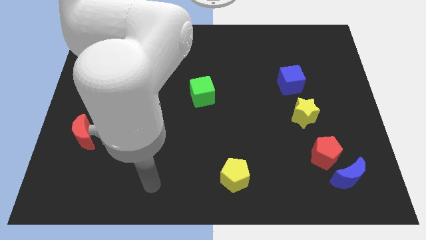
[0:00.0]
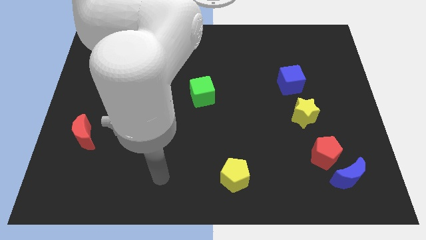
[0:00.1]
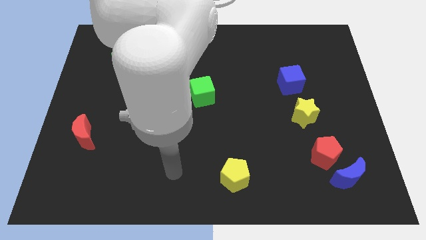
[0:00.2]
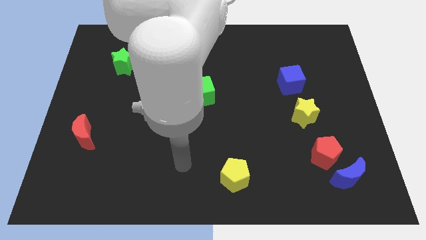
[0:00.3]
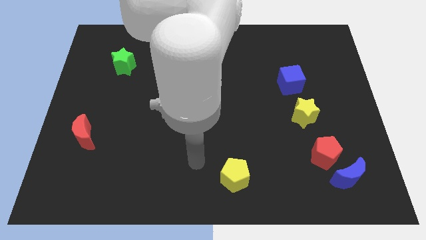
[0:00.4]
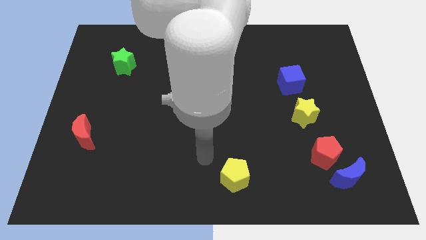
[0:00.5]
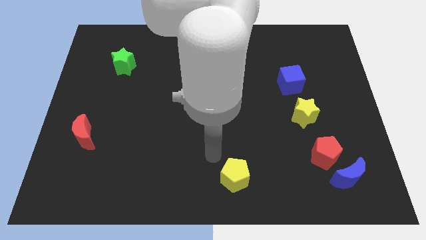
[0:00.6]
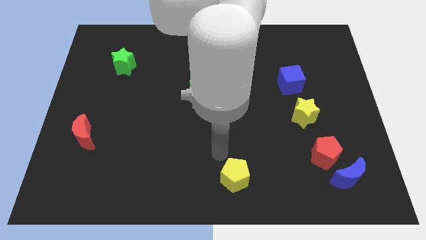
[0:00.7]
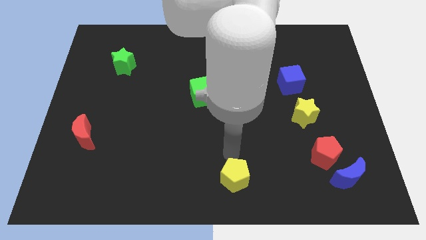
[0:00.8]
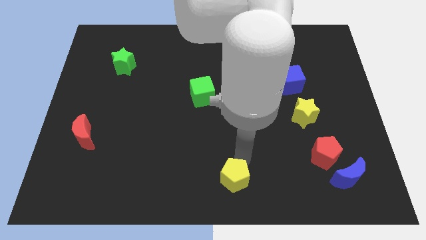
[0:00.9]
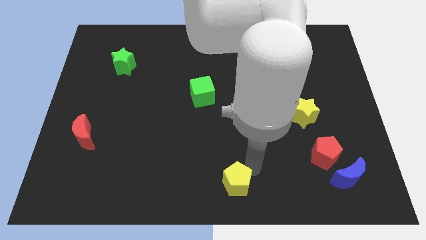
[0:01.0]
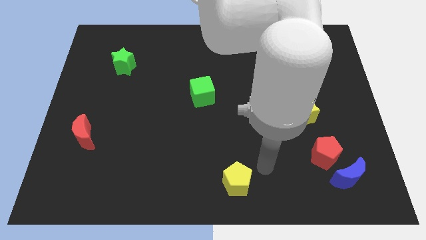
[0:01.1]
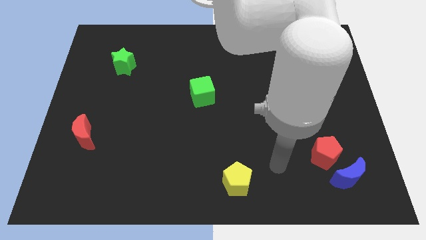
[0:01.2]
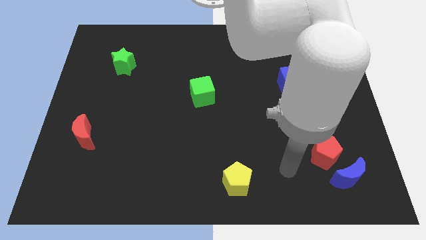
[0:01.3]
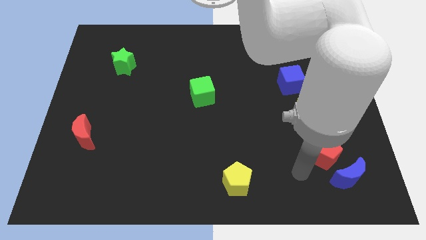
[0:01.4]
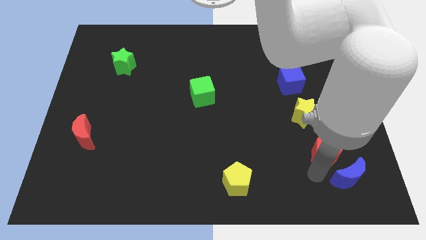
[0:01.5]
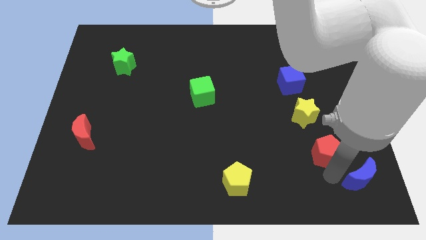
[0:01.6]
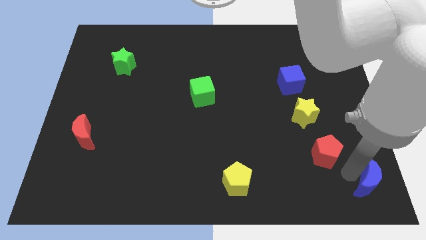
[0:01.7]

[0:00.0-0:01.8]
separate the red pentagon from the blue moon

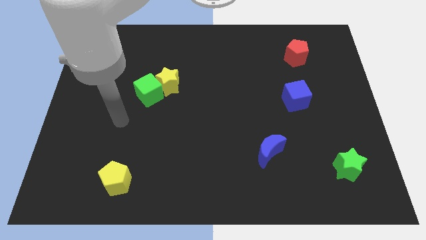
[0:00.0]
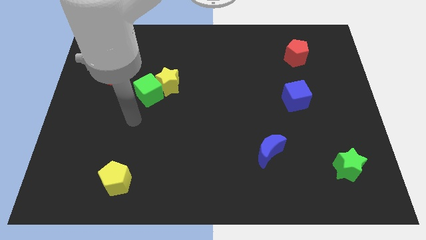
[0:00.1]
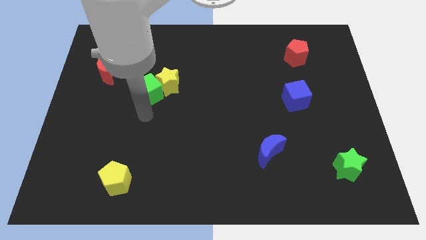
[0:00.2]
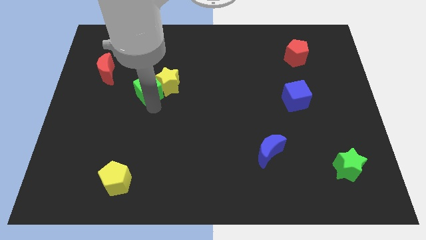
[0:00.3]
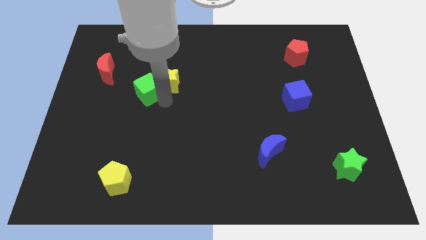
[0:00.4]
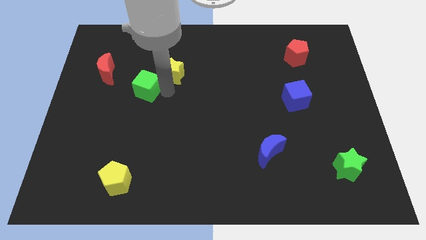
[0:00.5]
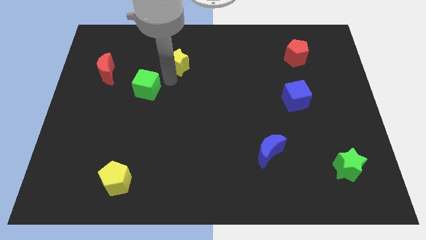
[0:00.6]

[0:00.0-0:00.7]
separate the green cube from the yellow star

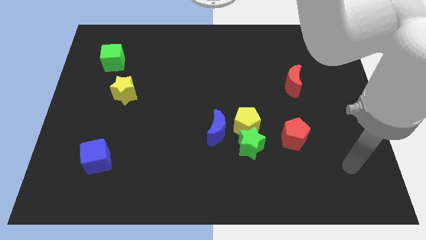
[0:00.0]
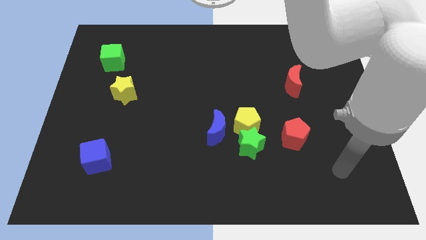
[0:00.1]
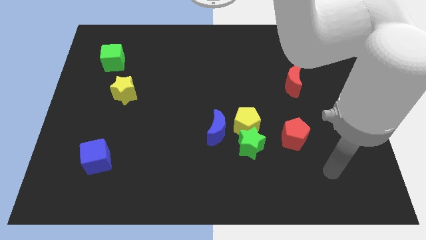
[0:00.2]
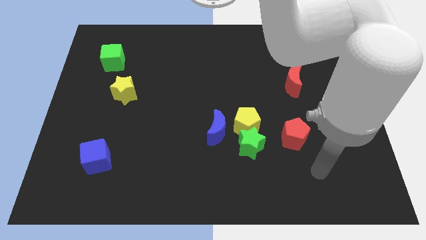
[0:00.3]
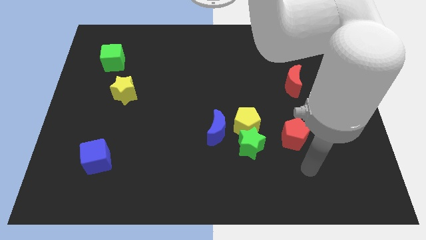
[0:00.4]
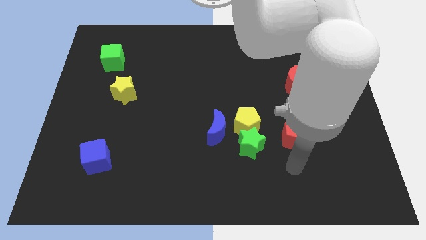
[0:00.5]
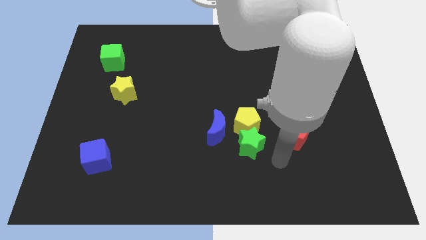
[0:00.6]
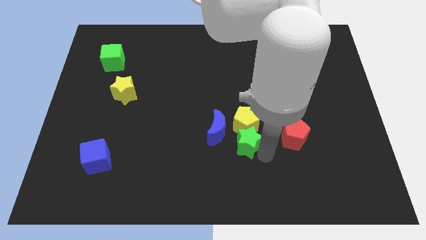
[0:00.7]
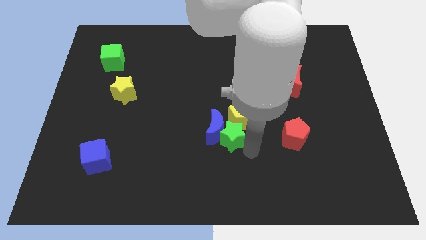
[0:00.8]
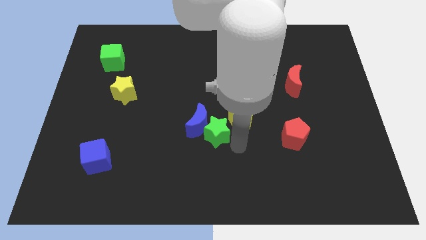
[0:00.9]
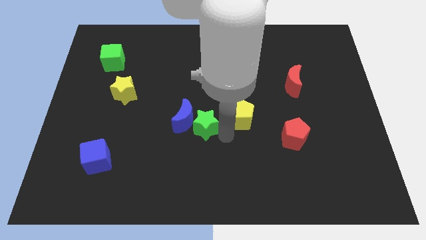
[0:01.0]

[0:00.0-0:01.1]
pull the yellow pentagon apart from the green star and blue moon

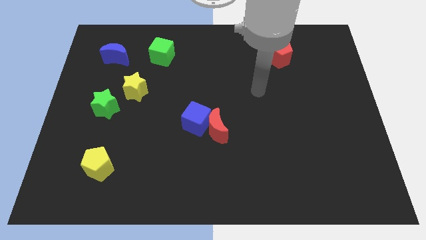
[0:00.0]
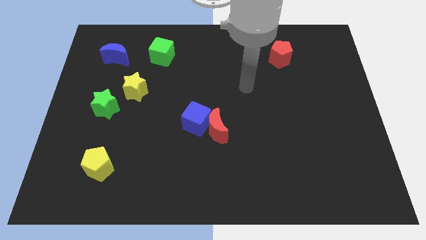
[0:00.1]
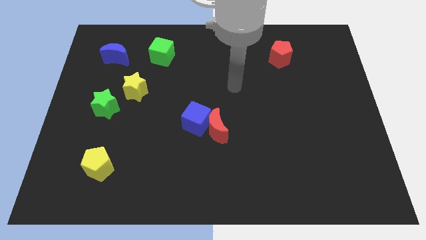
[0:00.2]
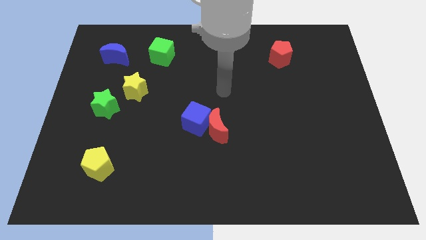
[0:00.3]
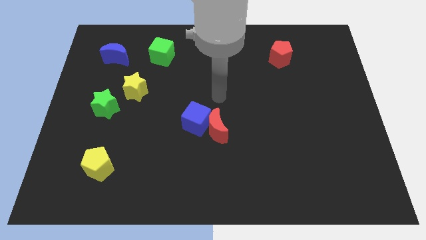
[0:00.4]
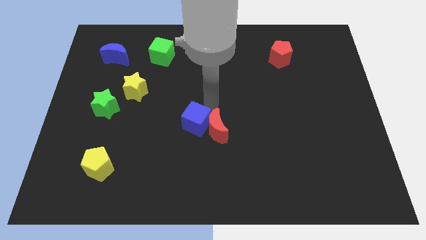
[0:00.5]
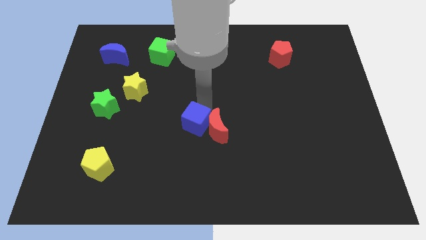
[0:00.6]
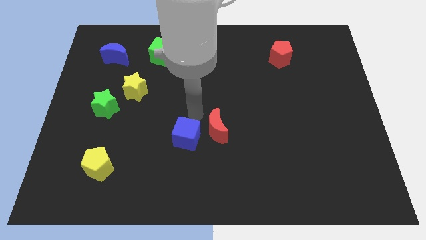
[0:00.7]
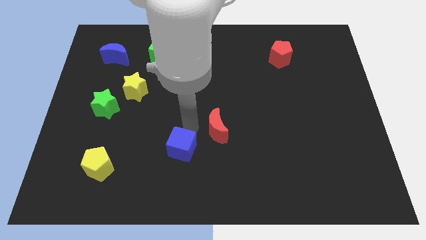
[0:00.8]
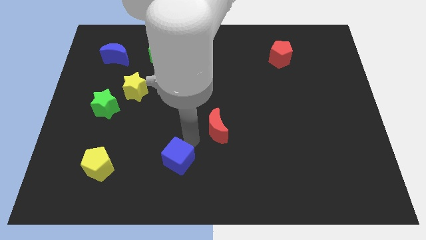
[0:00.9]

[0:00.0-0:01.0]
separate the red moon from the blue cube

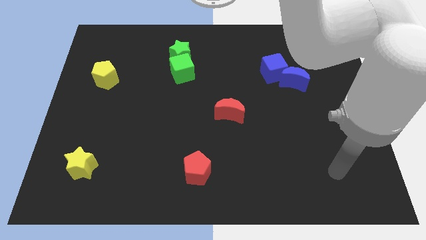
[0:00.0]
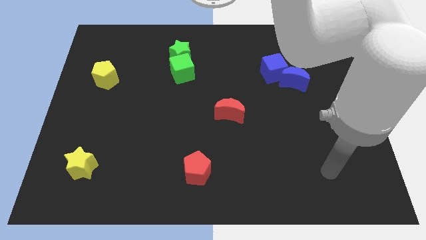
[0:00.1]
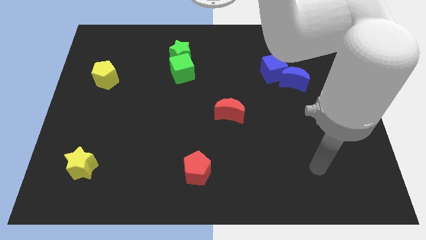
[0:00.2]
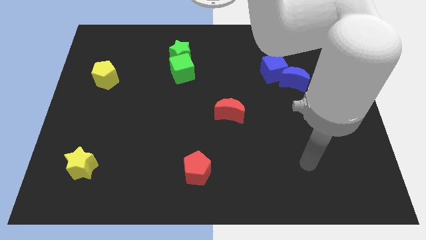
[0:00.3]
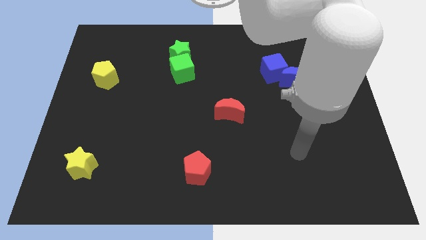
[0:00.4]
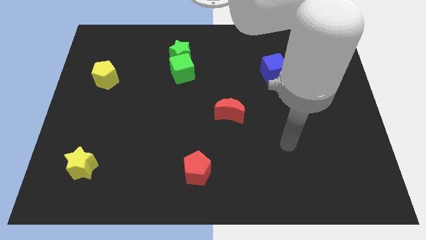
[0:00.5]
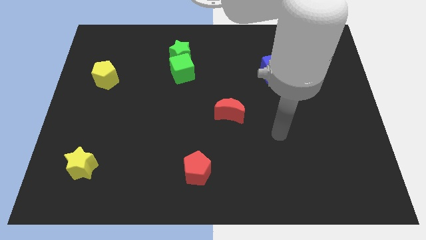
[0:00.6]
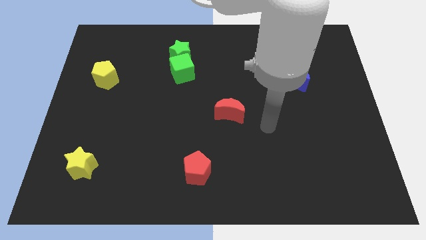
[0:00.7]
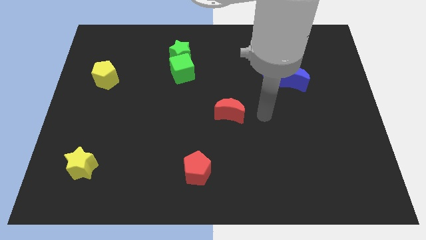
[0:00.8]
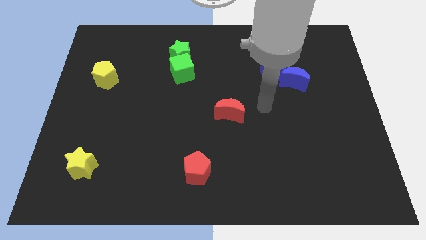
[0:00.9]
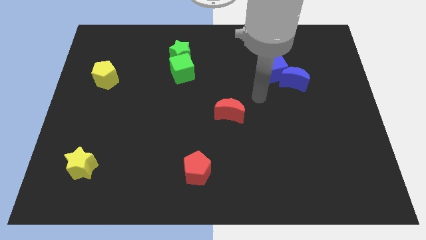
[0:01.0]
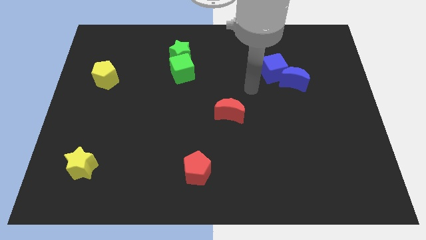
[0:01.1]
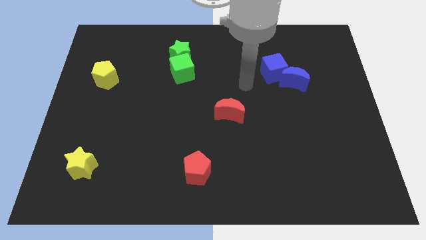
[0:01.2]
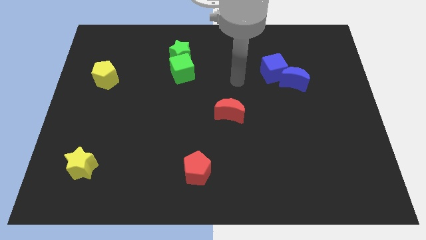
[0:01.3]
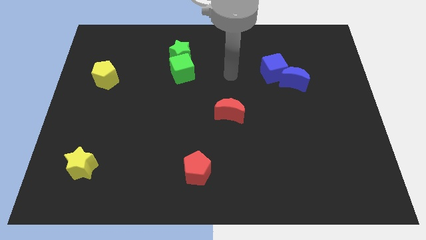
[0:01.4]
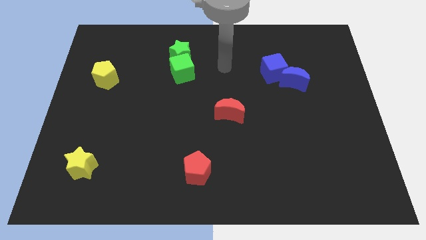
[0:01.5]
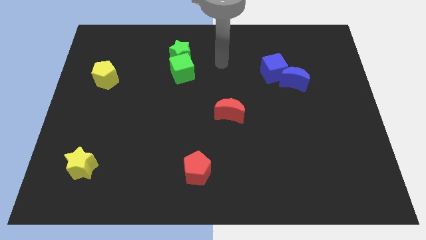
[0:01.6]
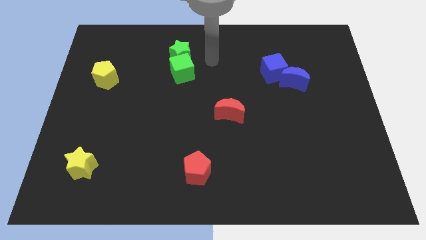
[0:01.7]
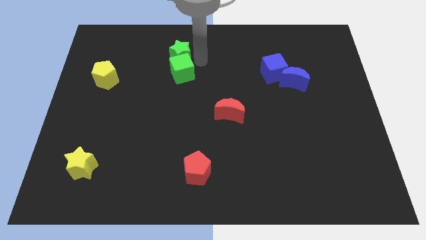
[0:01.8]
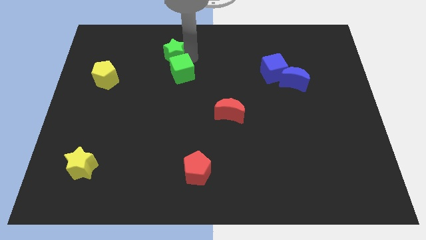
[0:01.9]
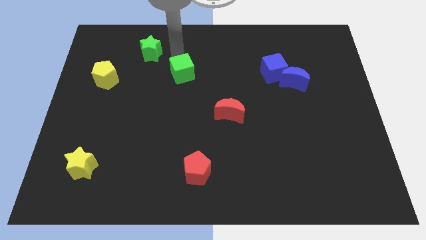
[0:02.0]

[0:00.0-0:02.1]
separate the green cube from the green star

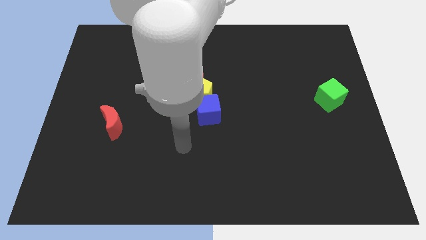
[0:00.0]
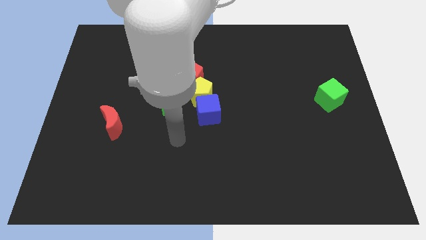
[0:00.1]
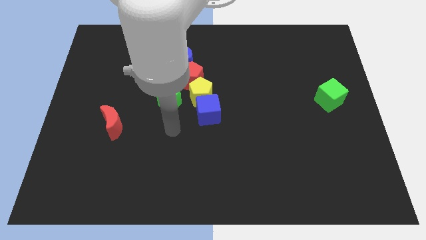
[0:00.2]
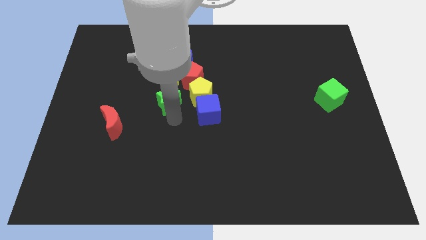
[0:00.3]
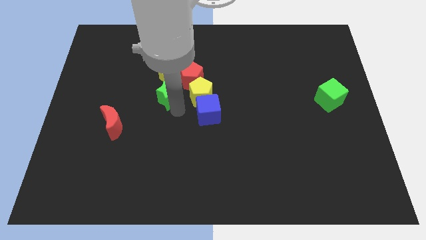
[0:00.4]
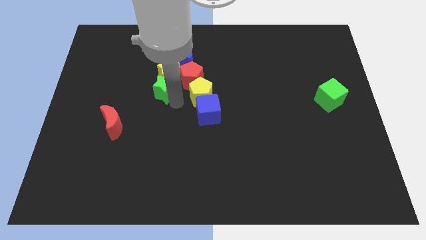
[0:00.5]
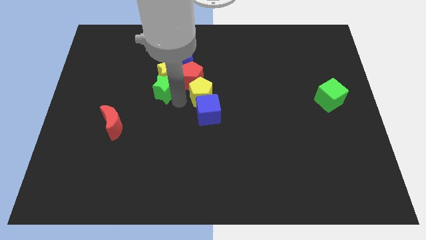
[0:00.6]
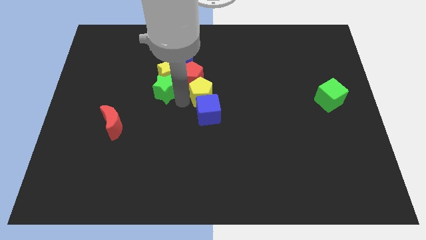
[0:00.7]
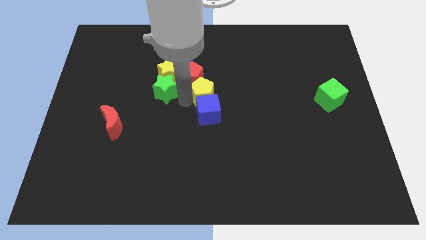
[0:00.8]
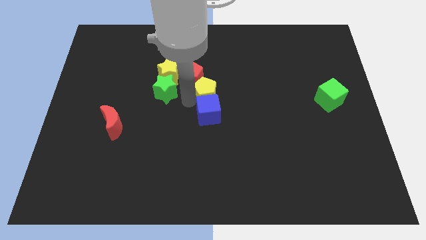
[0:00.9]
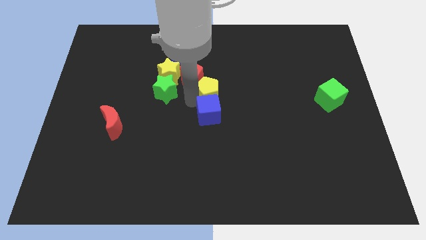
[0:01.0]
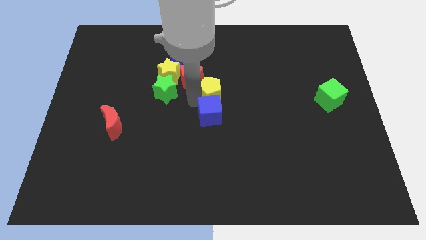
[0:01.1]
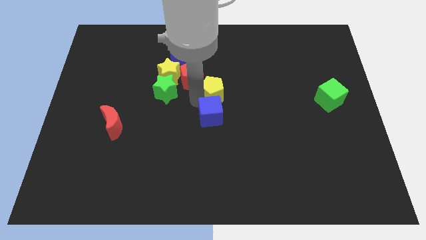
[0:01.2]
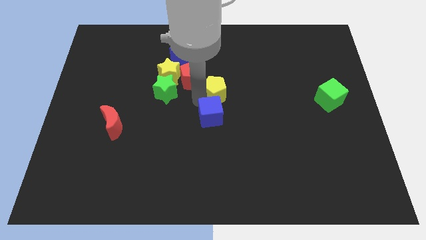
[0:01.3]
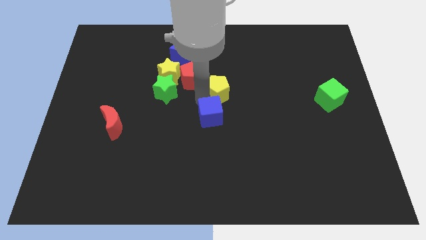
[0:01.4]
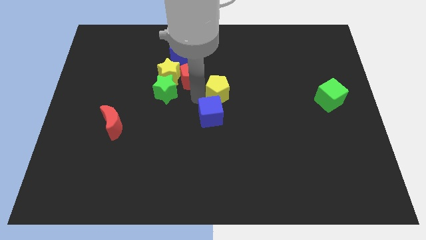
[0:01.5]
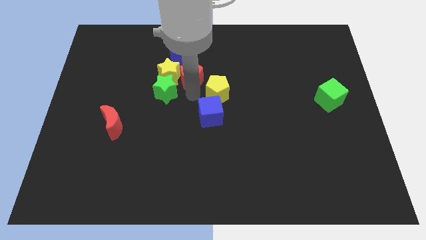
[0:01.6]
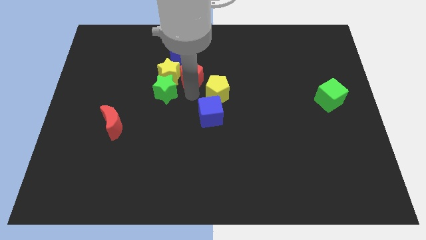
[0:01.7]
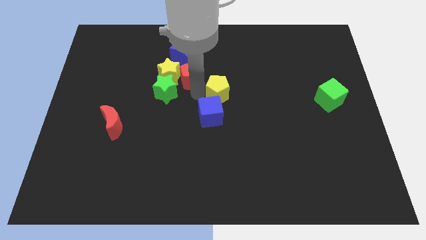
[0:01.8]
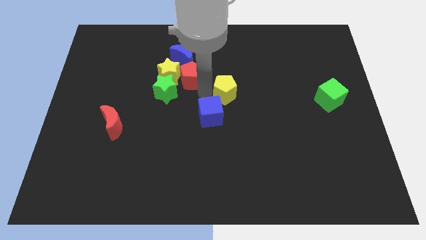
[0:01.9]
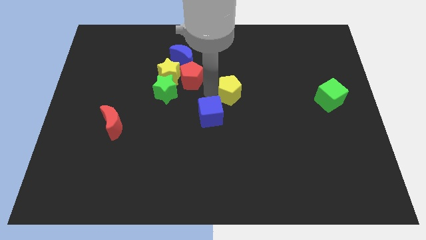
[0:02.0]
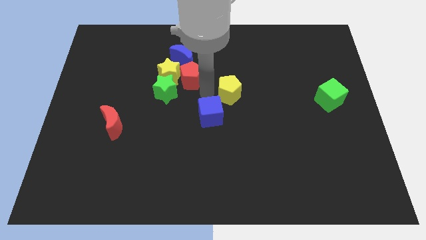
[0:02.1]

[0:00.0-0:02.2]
pull the yellow pentagon apart from the clump

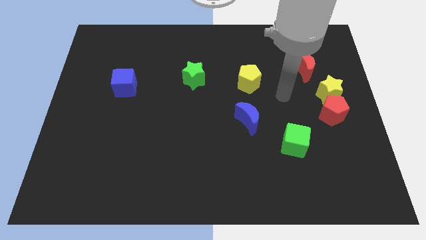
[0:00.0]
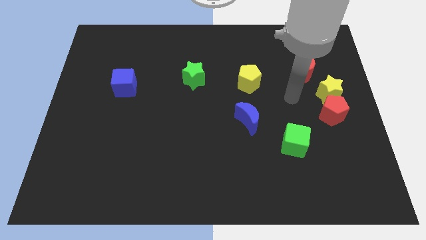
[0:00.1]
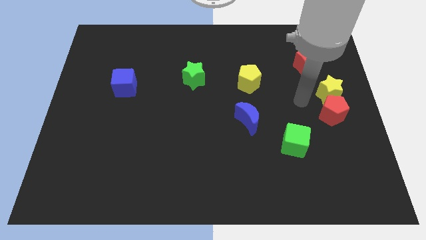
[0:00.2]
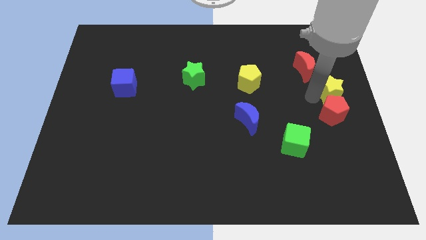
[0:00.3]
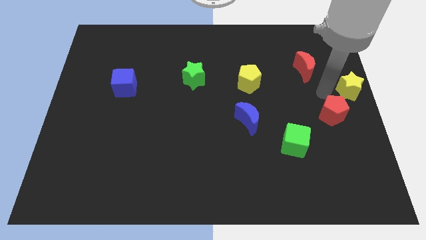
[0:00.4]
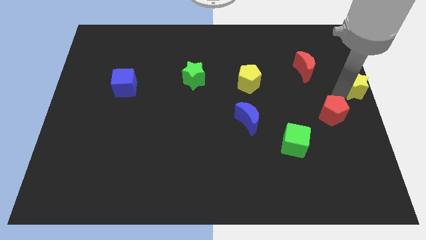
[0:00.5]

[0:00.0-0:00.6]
pull the red pentagon apart from the yellow star
